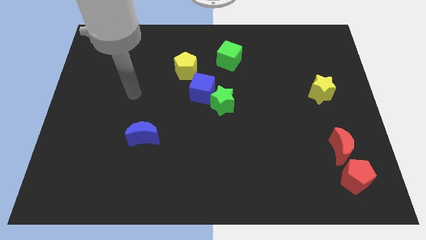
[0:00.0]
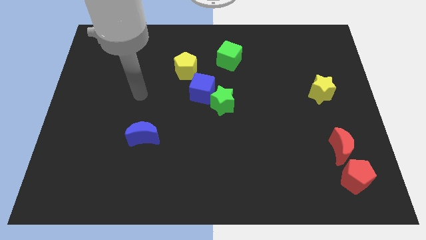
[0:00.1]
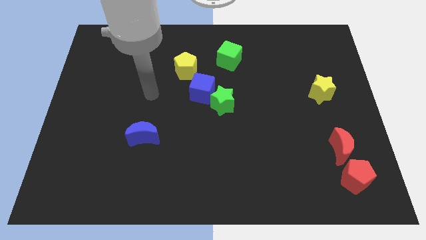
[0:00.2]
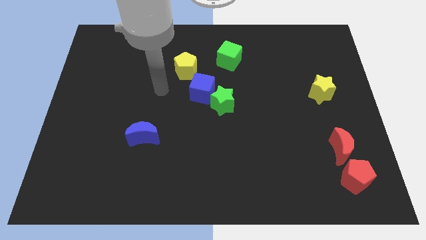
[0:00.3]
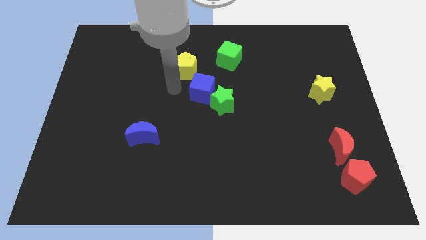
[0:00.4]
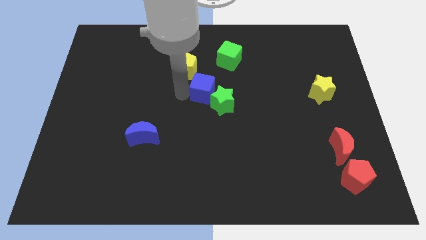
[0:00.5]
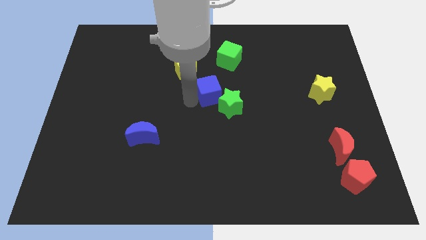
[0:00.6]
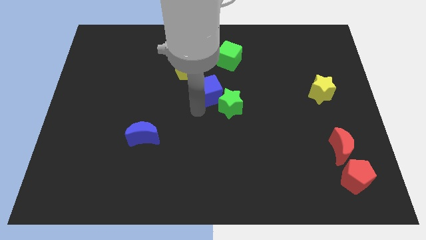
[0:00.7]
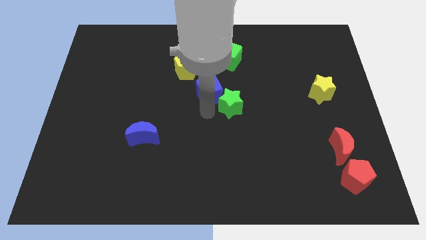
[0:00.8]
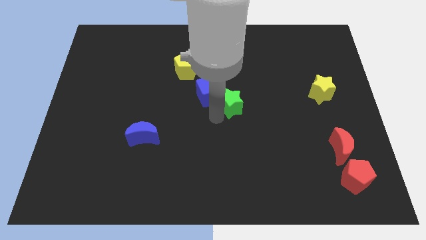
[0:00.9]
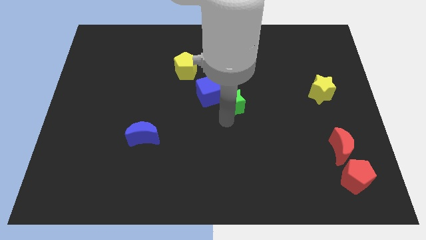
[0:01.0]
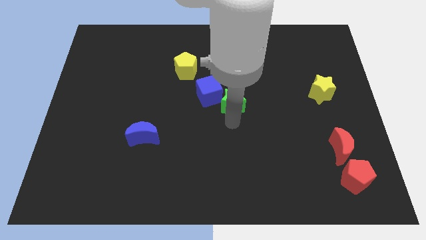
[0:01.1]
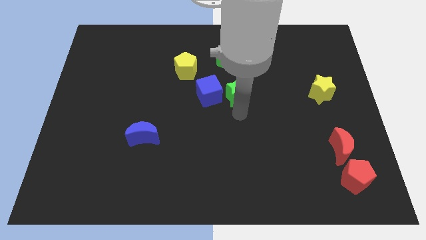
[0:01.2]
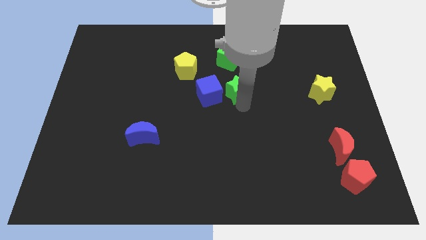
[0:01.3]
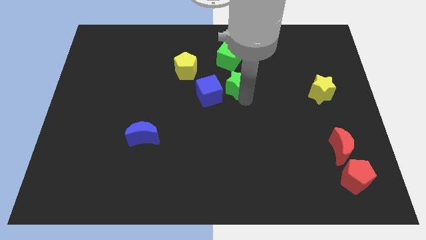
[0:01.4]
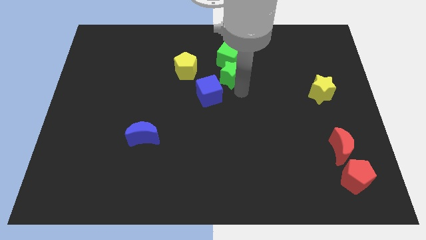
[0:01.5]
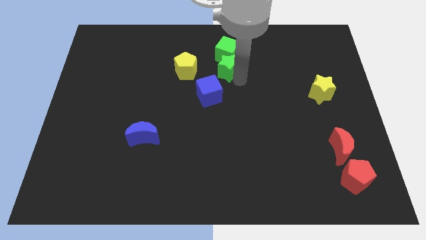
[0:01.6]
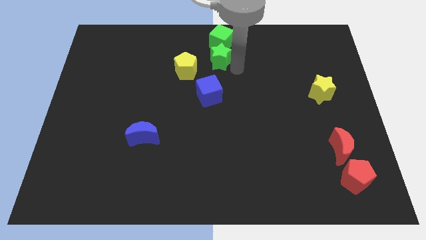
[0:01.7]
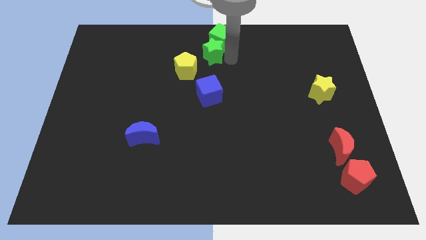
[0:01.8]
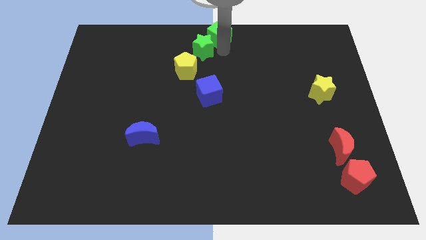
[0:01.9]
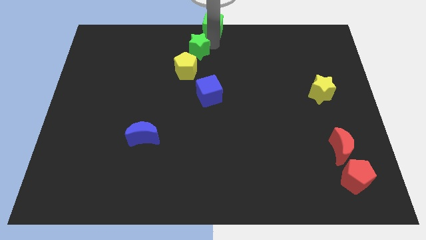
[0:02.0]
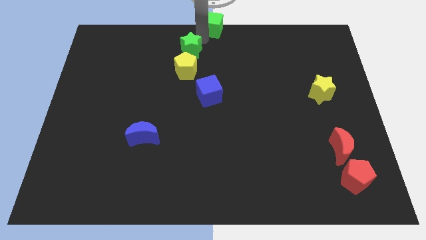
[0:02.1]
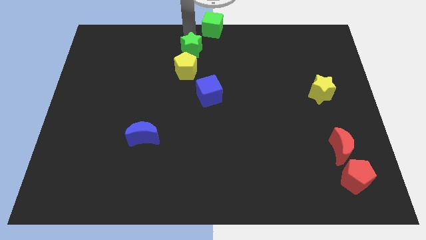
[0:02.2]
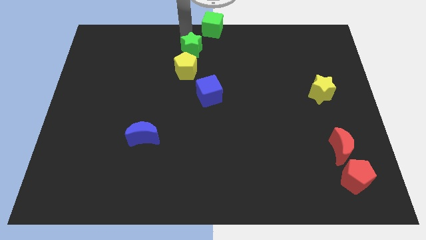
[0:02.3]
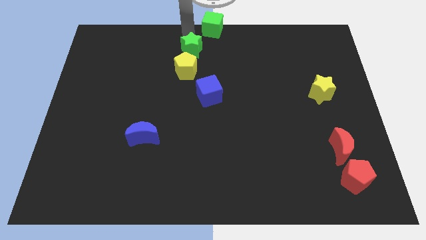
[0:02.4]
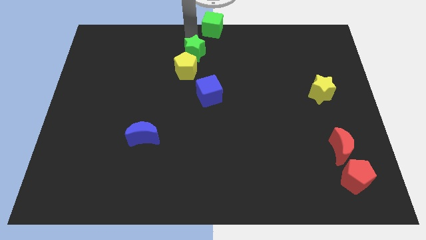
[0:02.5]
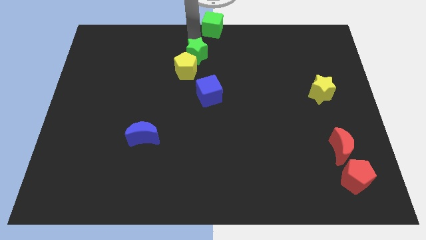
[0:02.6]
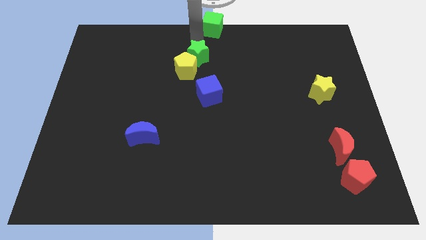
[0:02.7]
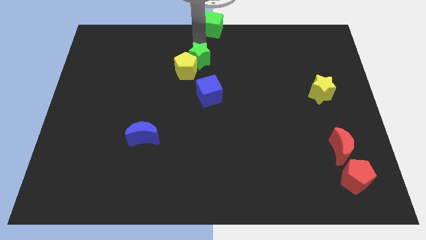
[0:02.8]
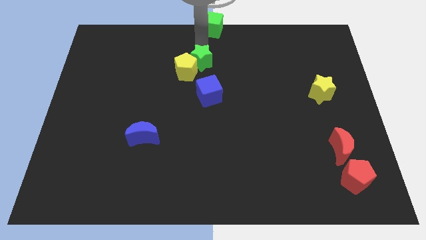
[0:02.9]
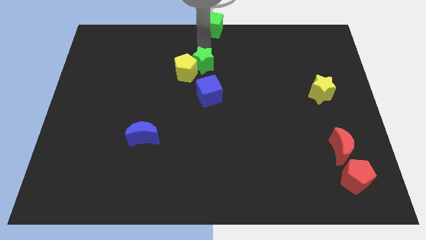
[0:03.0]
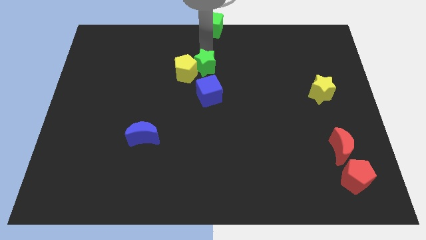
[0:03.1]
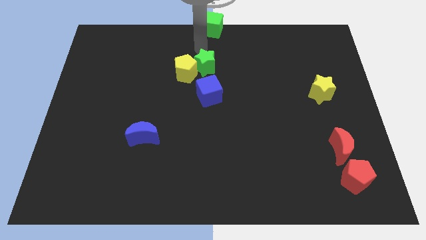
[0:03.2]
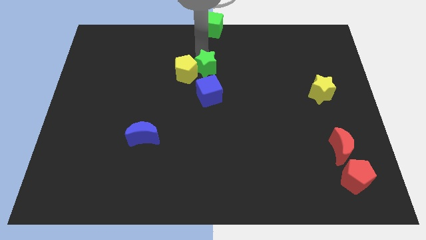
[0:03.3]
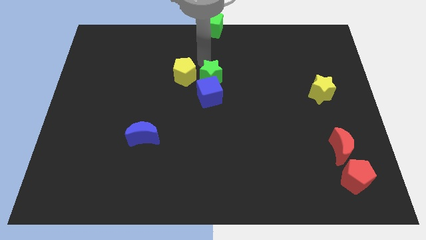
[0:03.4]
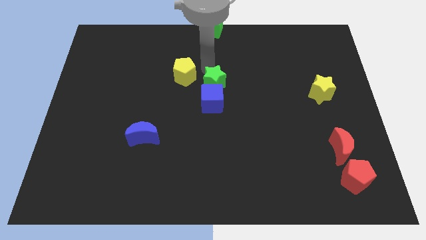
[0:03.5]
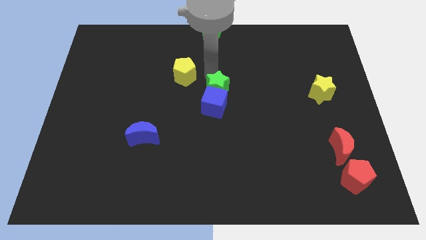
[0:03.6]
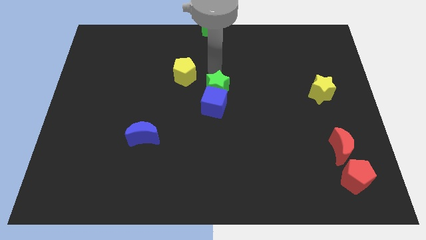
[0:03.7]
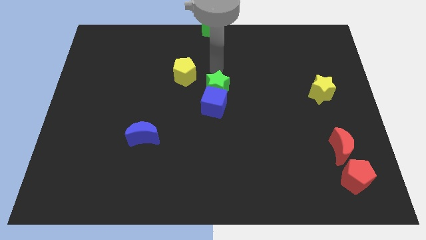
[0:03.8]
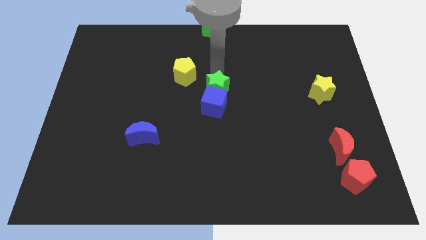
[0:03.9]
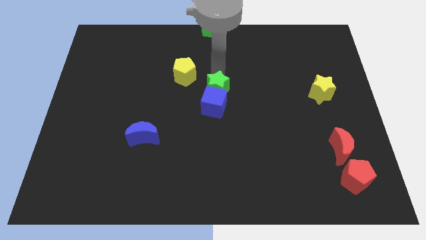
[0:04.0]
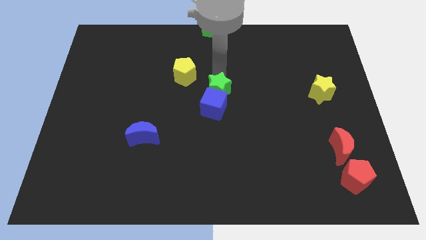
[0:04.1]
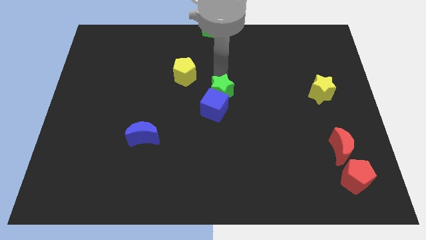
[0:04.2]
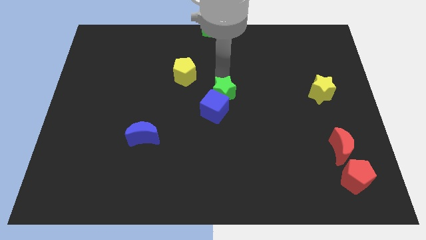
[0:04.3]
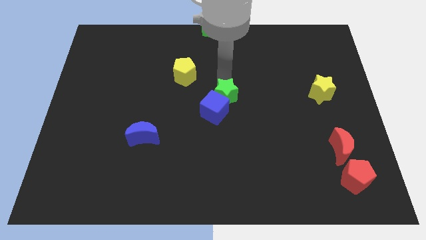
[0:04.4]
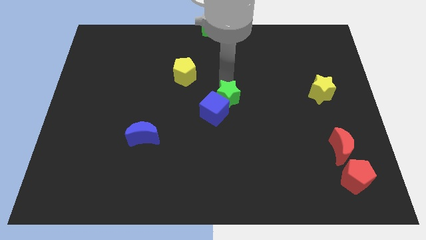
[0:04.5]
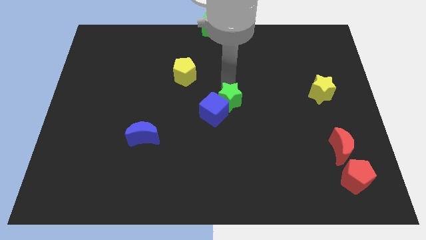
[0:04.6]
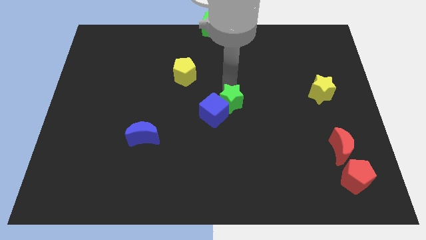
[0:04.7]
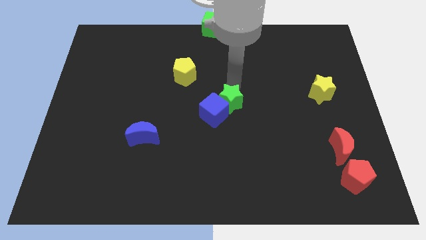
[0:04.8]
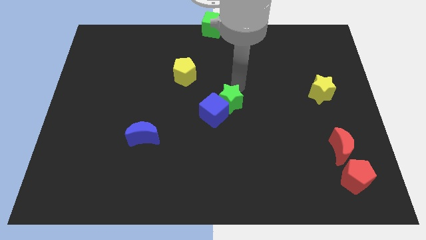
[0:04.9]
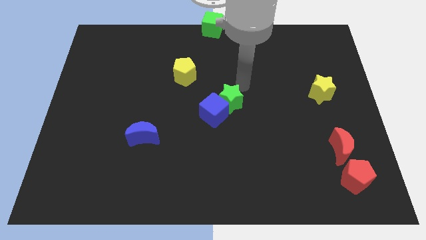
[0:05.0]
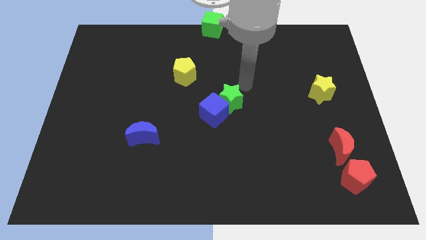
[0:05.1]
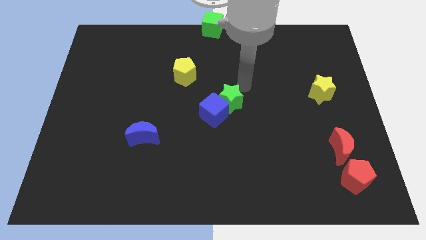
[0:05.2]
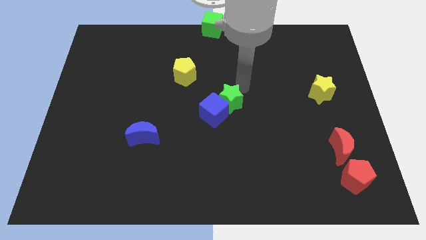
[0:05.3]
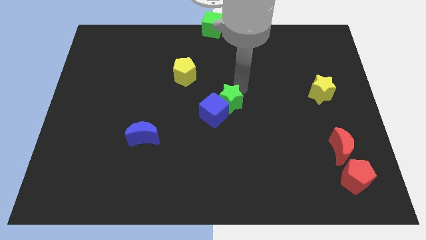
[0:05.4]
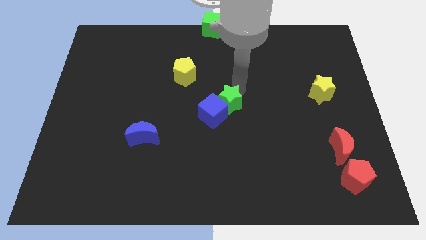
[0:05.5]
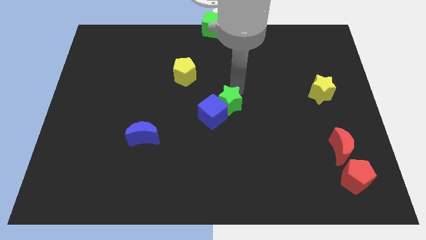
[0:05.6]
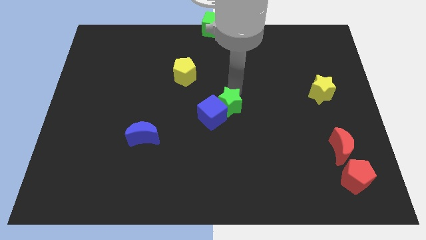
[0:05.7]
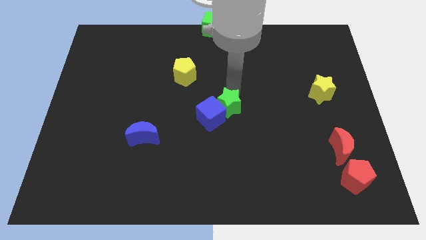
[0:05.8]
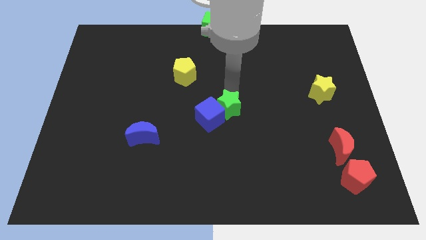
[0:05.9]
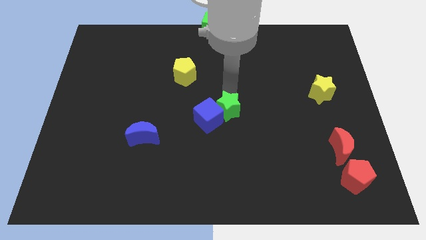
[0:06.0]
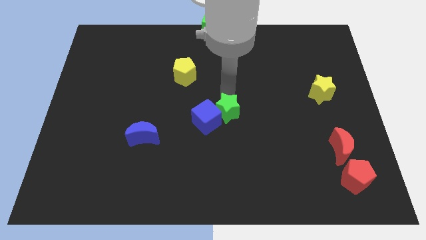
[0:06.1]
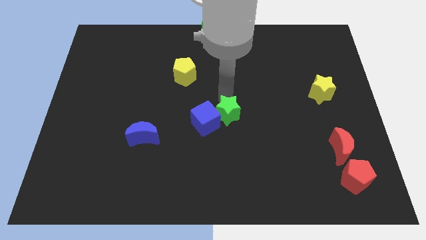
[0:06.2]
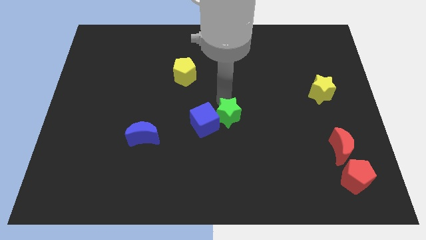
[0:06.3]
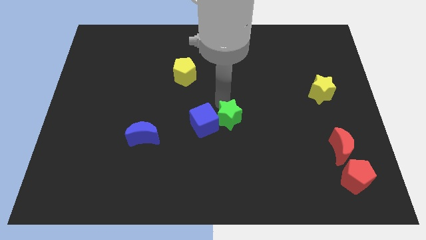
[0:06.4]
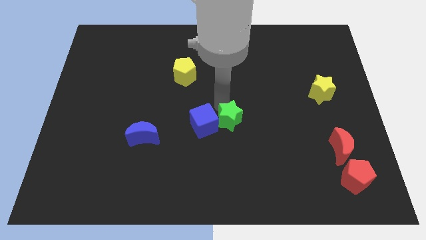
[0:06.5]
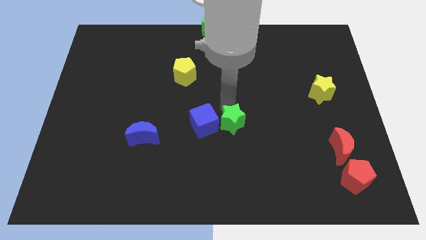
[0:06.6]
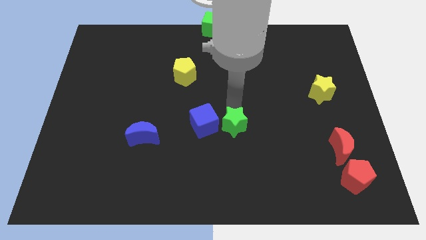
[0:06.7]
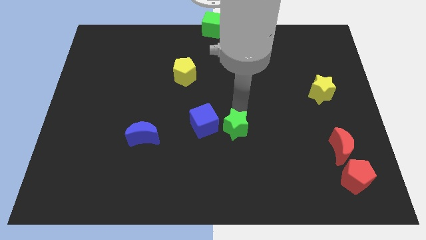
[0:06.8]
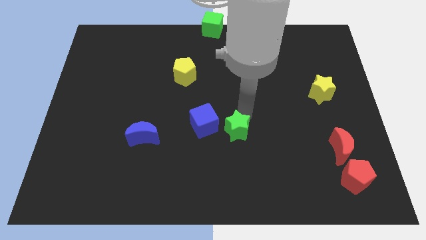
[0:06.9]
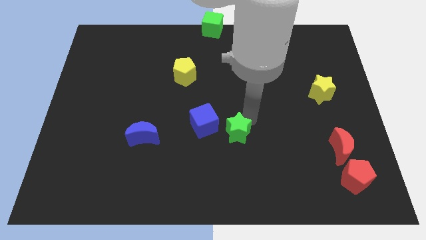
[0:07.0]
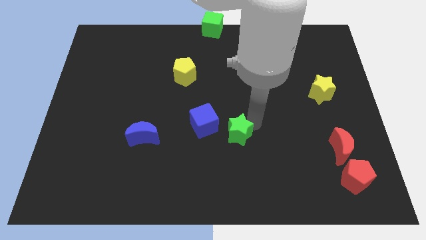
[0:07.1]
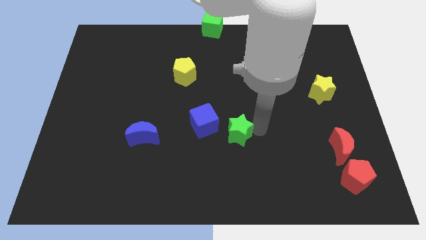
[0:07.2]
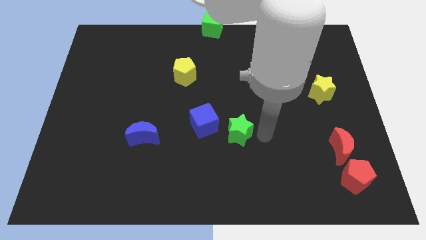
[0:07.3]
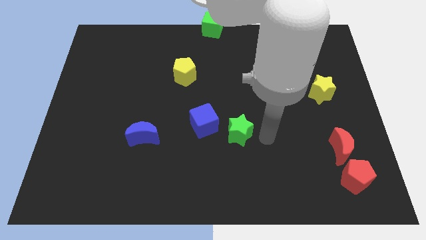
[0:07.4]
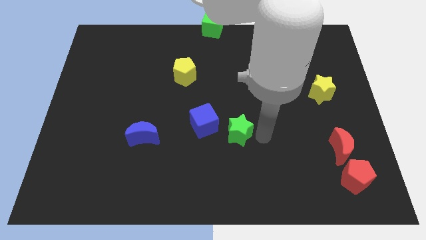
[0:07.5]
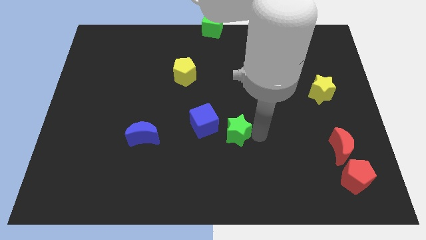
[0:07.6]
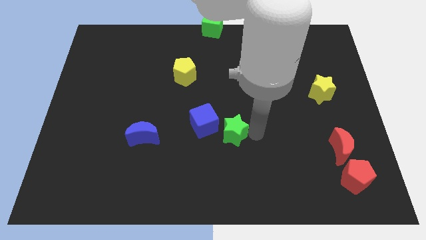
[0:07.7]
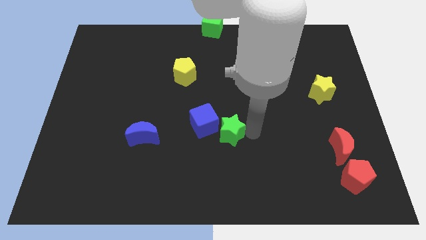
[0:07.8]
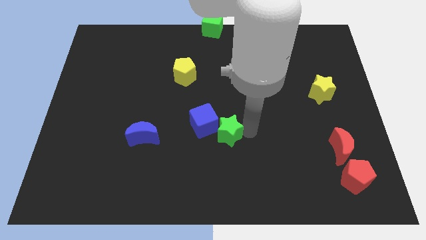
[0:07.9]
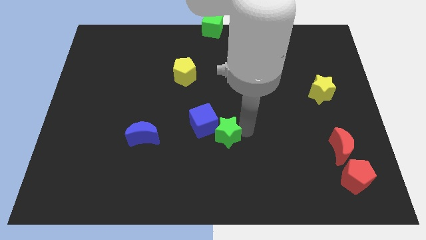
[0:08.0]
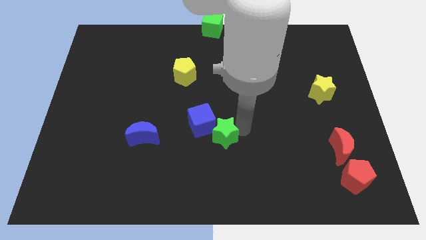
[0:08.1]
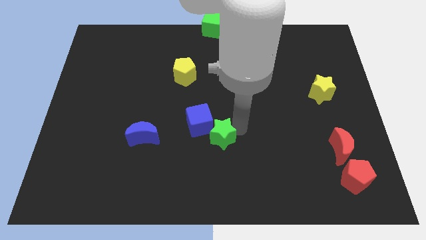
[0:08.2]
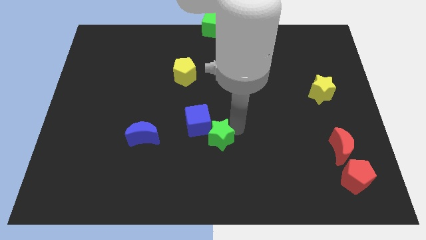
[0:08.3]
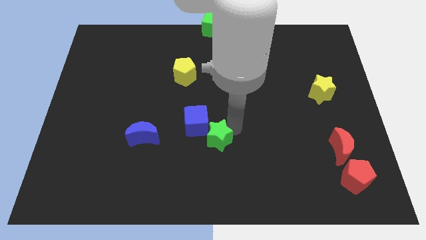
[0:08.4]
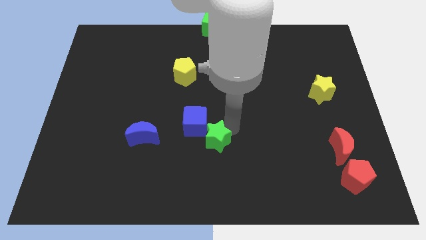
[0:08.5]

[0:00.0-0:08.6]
slightly move the green star downwards and left diagonally
